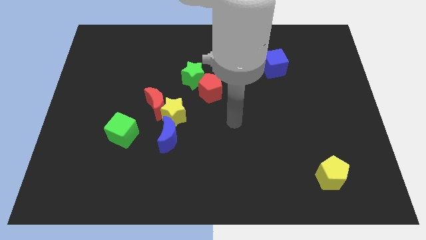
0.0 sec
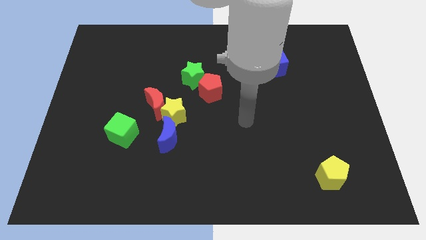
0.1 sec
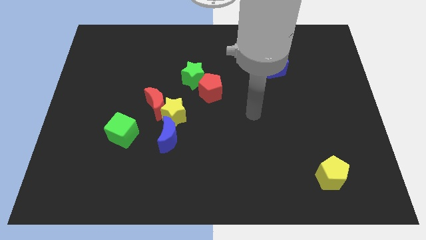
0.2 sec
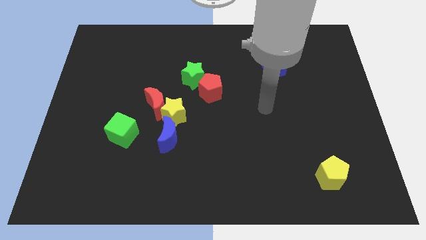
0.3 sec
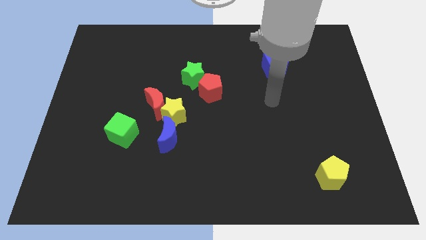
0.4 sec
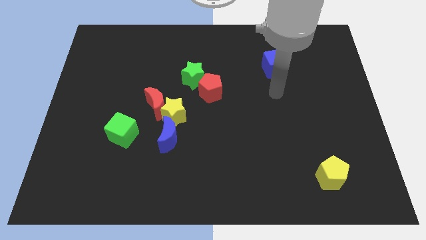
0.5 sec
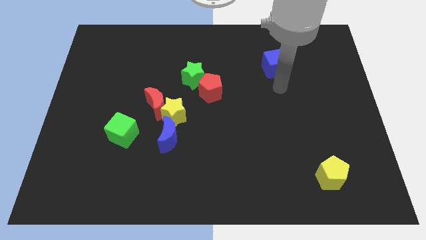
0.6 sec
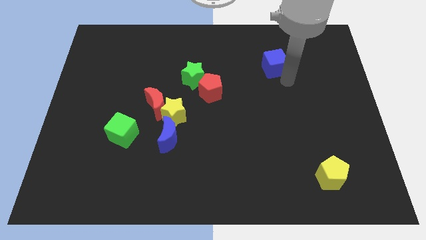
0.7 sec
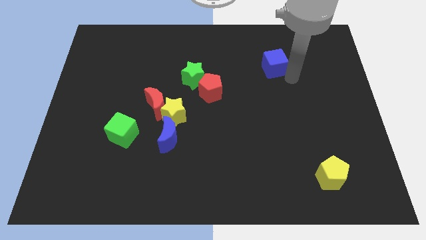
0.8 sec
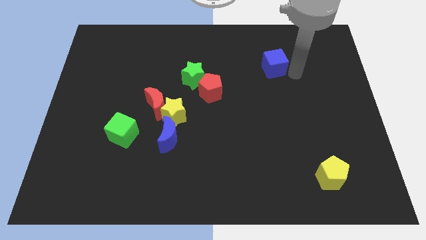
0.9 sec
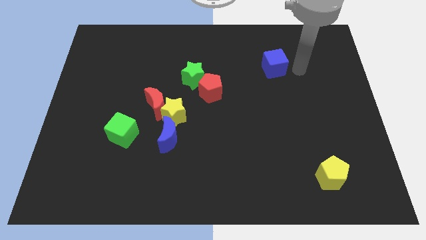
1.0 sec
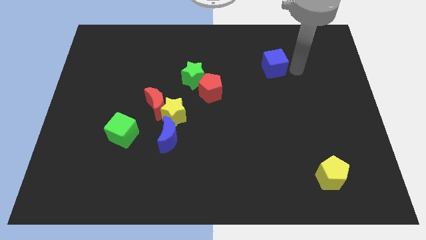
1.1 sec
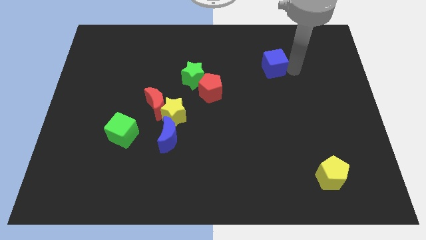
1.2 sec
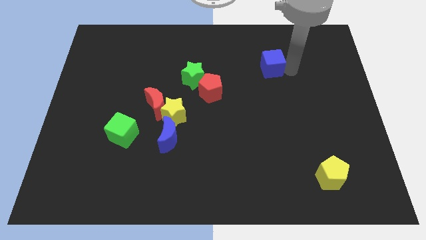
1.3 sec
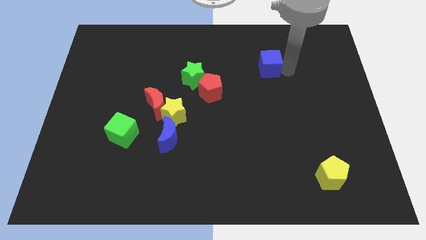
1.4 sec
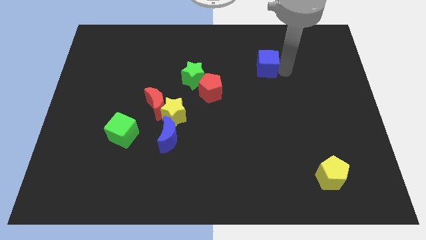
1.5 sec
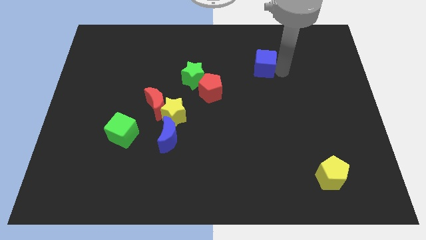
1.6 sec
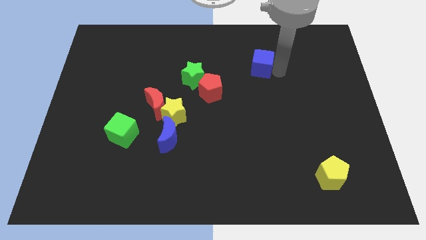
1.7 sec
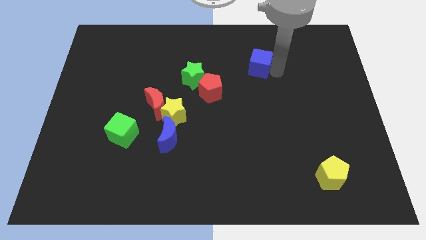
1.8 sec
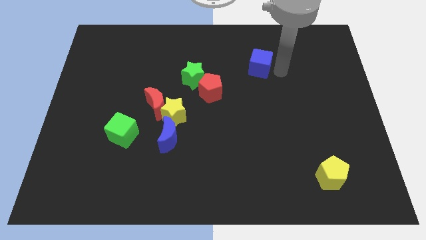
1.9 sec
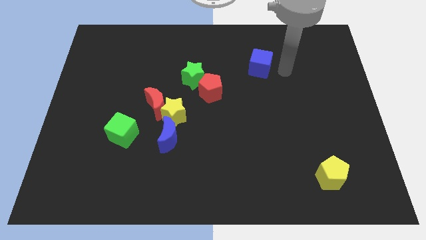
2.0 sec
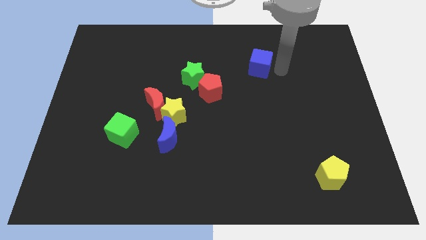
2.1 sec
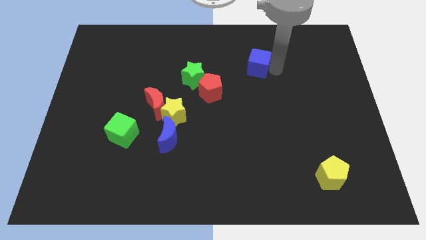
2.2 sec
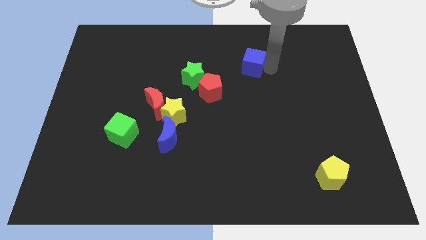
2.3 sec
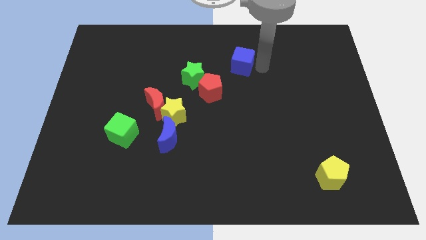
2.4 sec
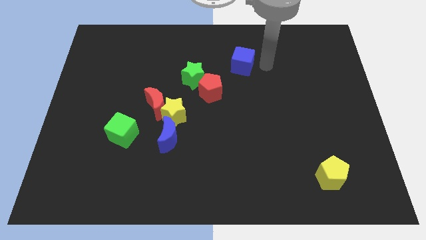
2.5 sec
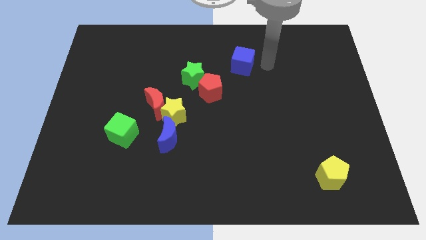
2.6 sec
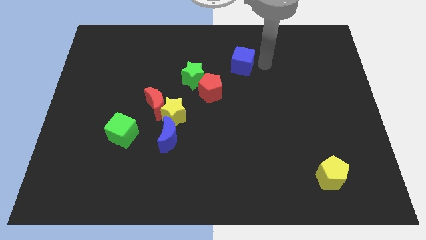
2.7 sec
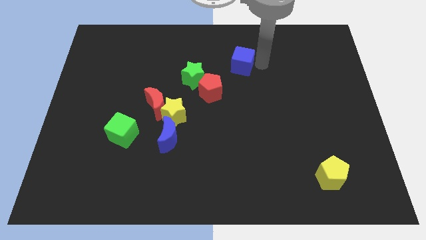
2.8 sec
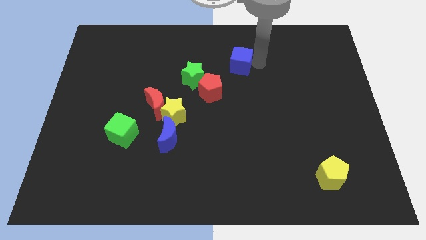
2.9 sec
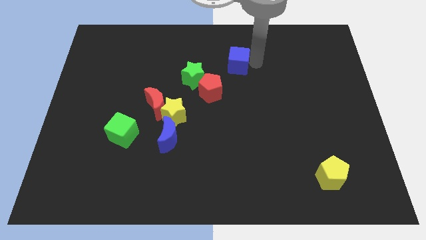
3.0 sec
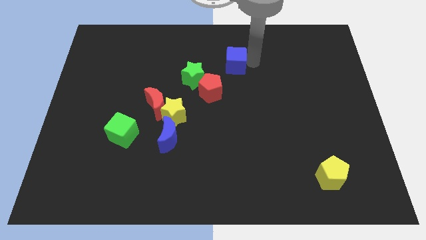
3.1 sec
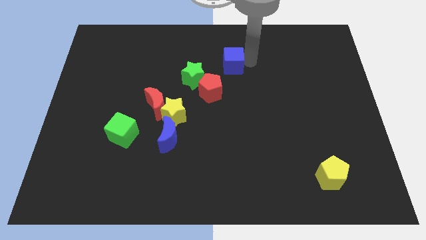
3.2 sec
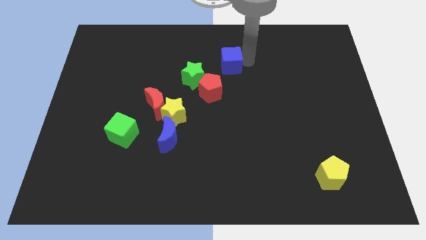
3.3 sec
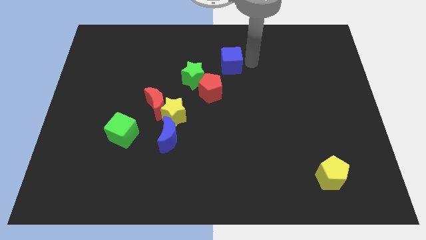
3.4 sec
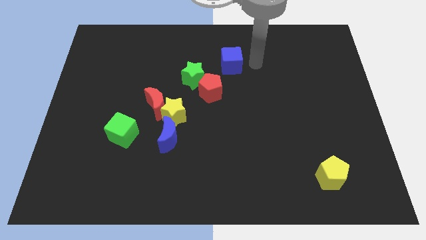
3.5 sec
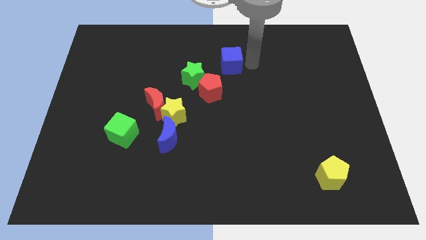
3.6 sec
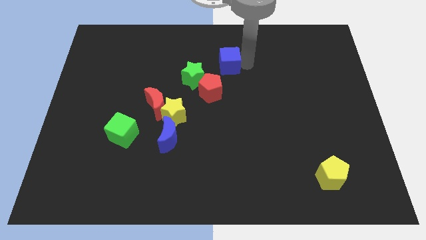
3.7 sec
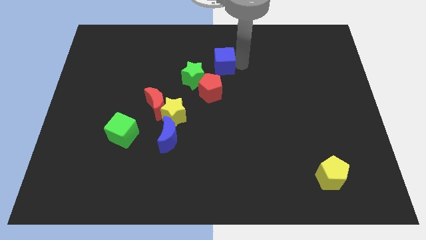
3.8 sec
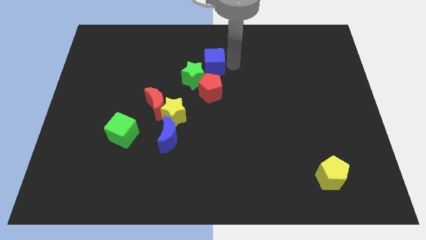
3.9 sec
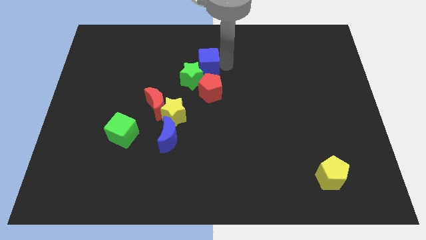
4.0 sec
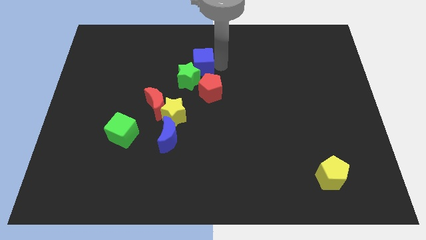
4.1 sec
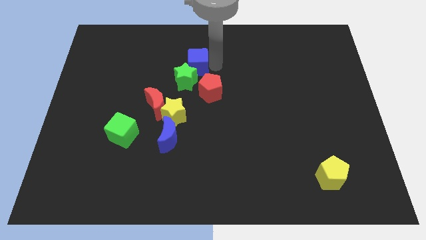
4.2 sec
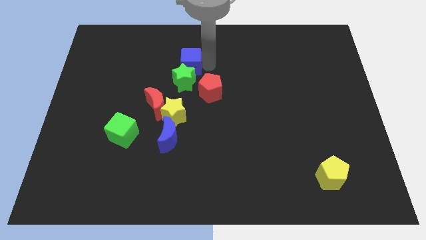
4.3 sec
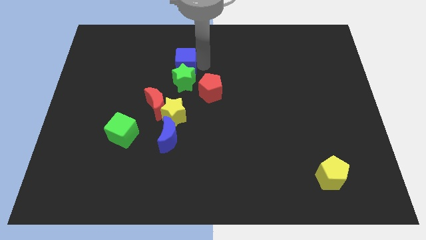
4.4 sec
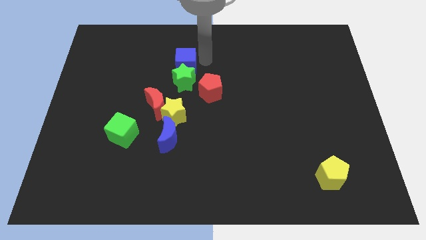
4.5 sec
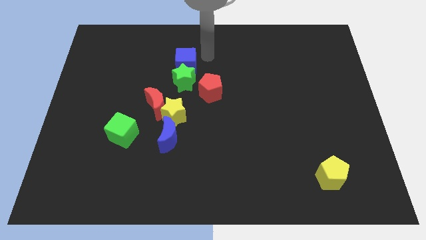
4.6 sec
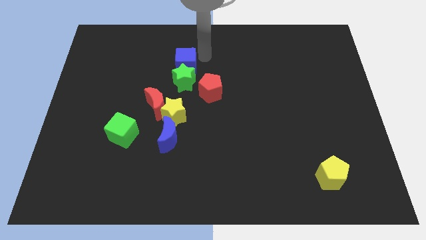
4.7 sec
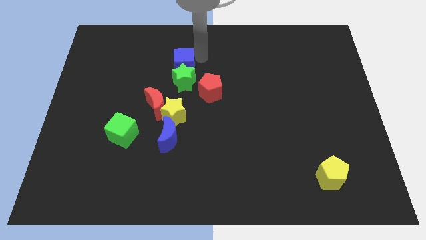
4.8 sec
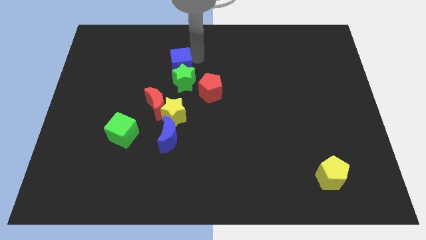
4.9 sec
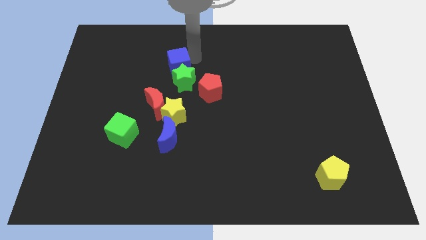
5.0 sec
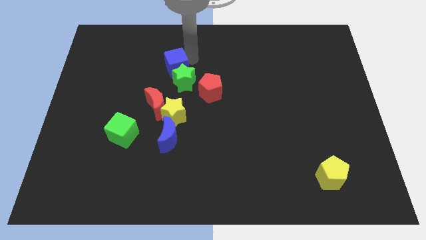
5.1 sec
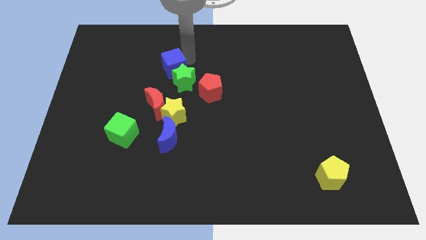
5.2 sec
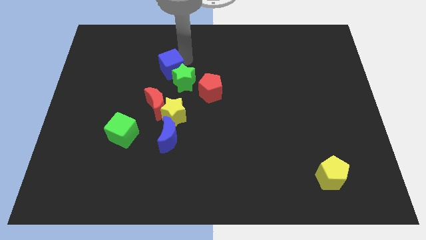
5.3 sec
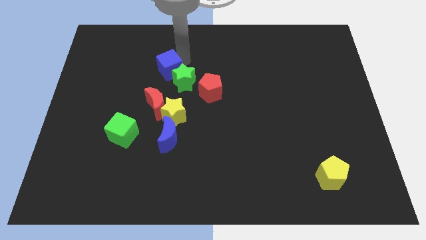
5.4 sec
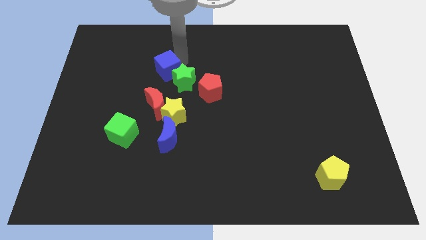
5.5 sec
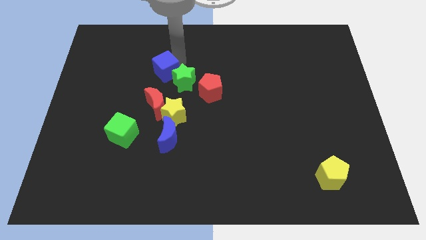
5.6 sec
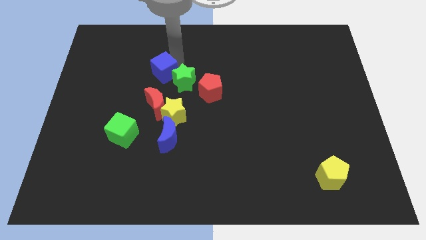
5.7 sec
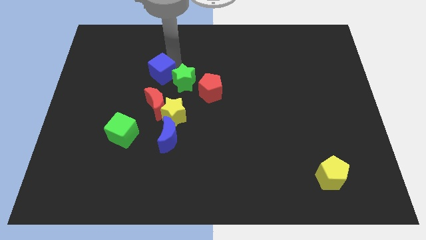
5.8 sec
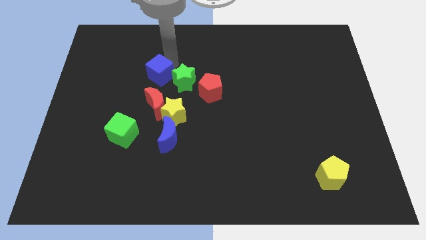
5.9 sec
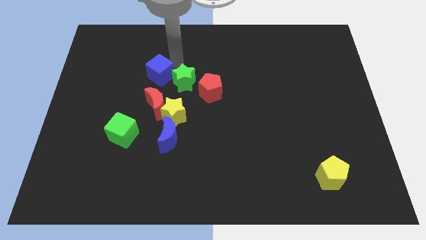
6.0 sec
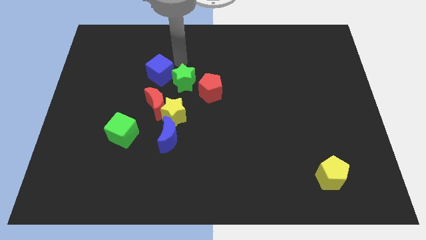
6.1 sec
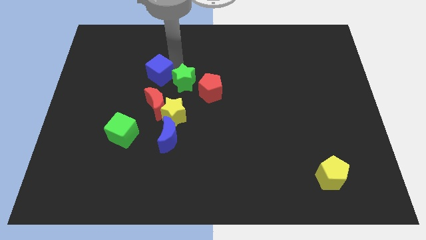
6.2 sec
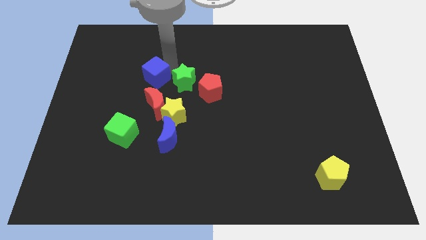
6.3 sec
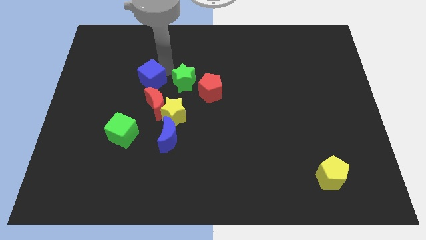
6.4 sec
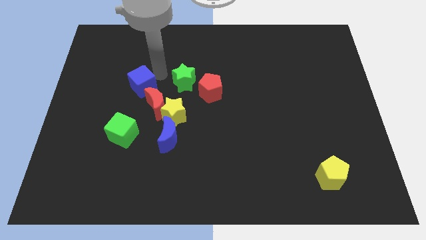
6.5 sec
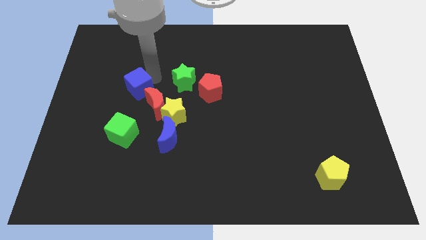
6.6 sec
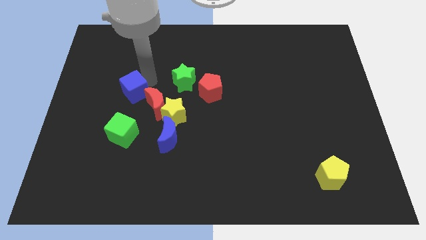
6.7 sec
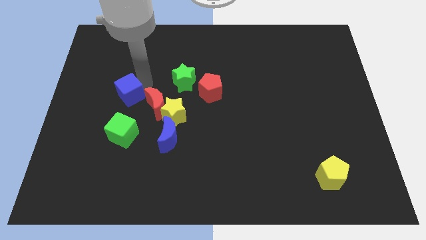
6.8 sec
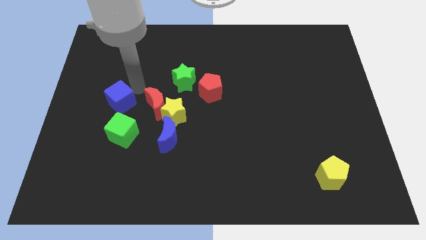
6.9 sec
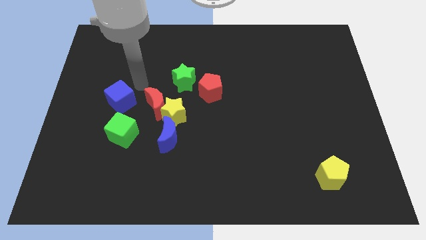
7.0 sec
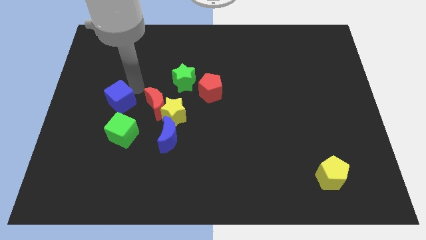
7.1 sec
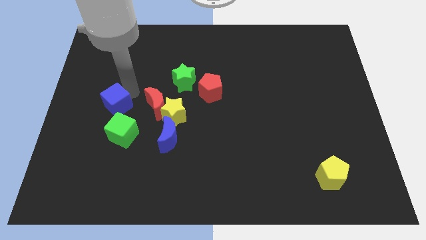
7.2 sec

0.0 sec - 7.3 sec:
push the blue cube to the top left side of the green cube
